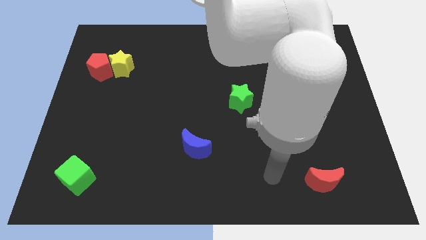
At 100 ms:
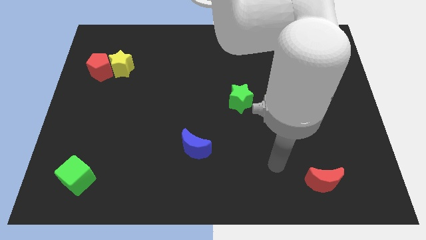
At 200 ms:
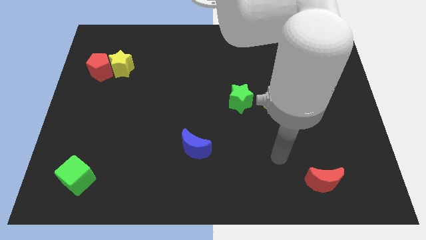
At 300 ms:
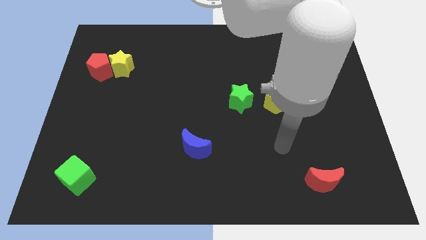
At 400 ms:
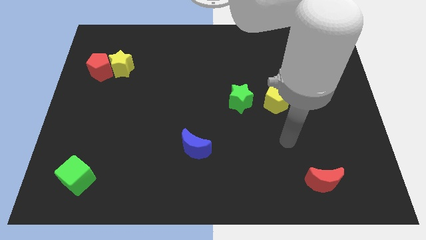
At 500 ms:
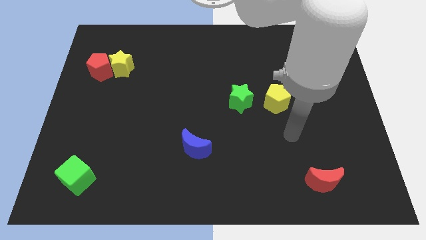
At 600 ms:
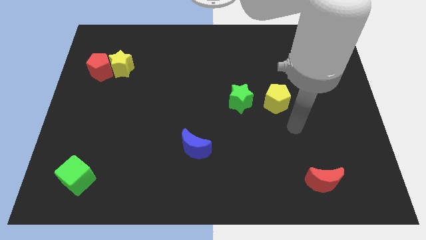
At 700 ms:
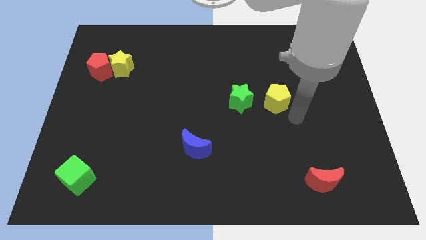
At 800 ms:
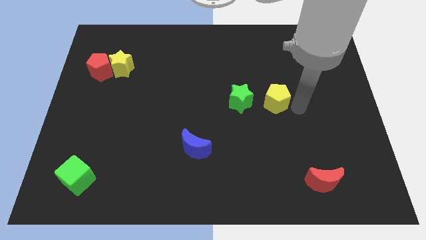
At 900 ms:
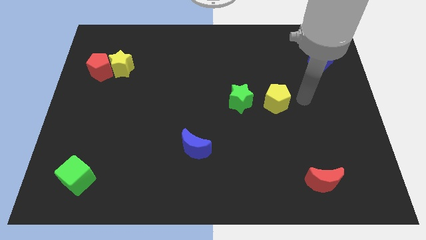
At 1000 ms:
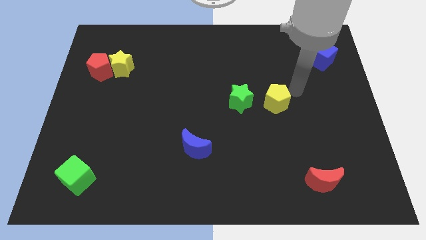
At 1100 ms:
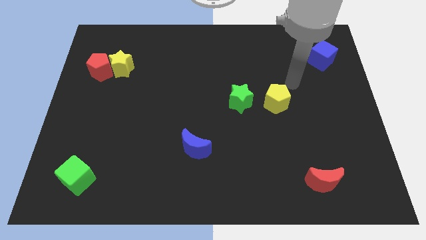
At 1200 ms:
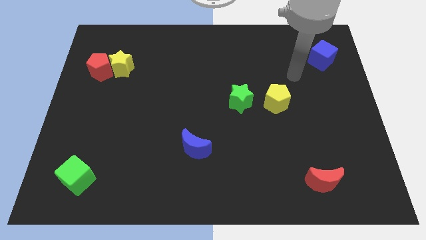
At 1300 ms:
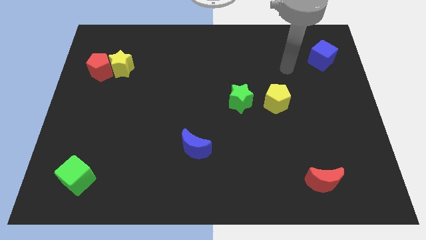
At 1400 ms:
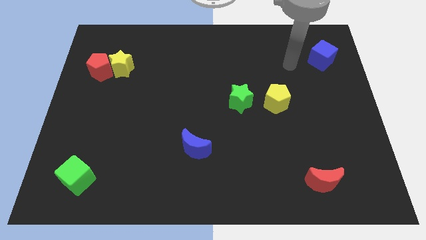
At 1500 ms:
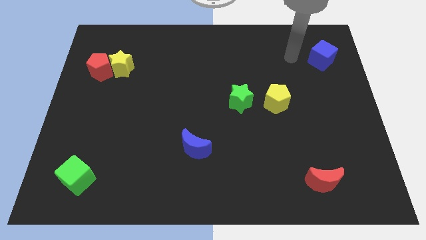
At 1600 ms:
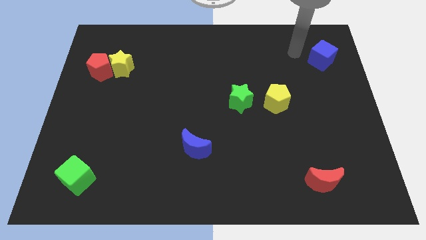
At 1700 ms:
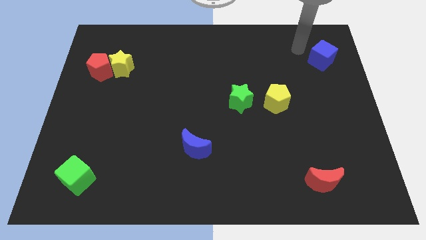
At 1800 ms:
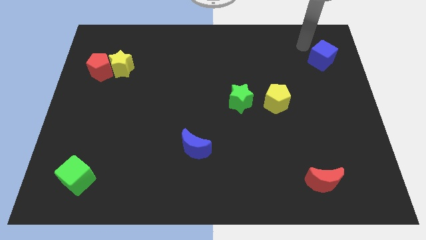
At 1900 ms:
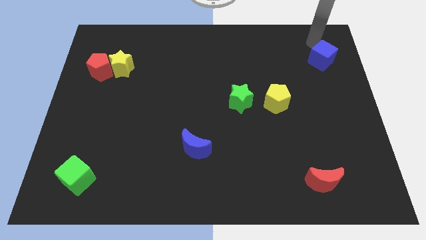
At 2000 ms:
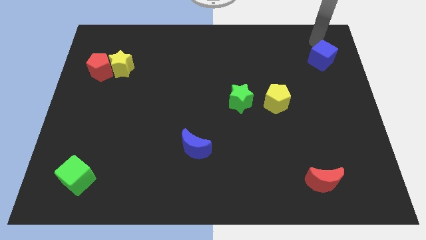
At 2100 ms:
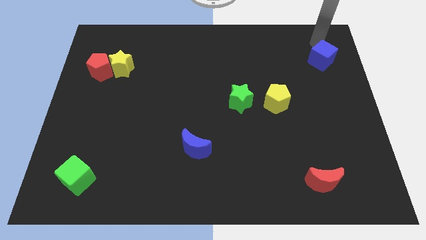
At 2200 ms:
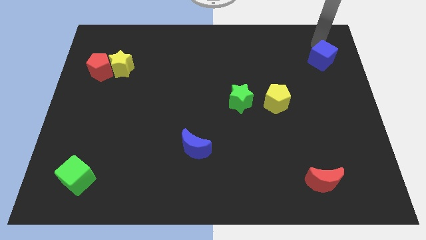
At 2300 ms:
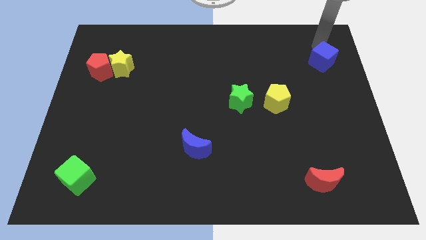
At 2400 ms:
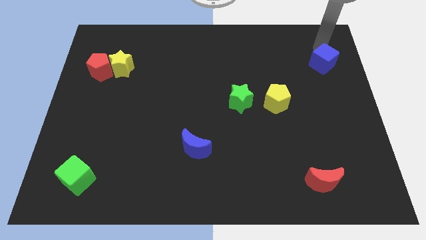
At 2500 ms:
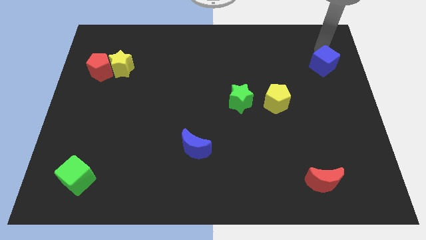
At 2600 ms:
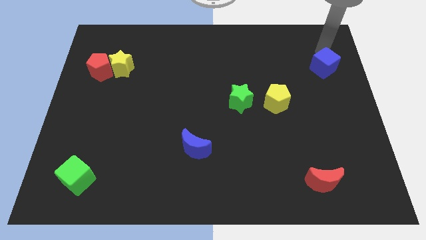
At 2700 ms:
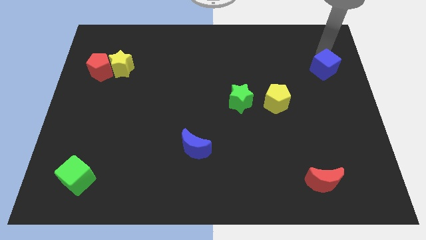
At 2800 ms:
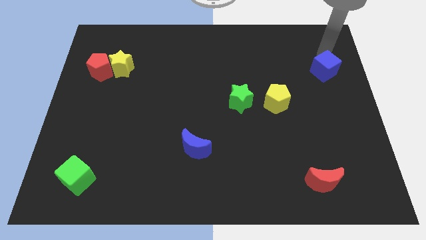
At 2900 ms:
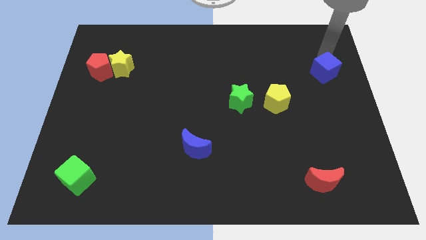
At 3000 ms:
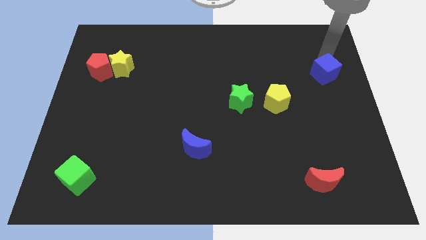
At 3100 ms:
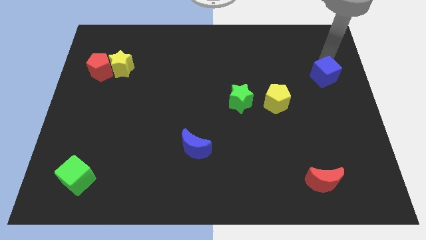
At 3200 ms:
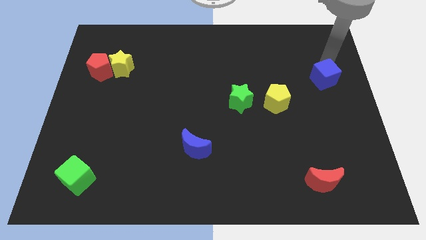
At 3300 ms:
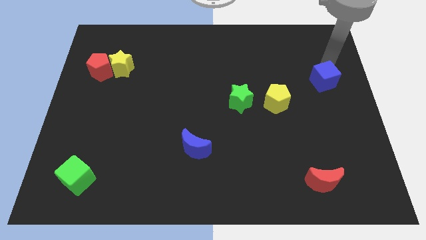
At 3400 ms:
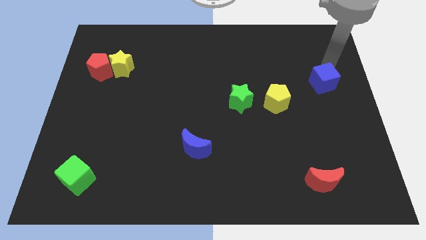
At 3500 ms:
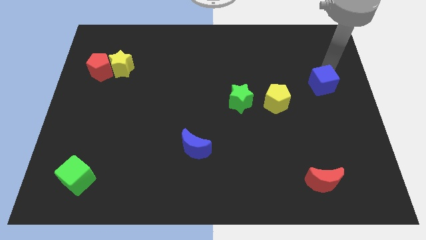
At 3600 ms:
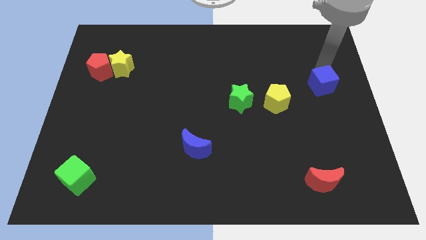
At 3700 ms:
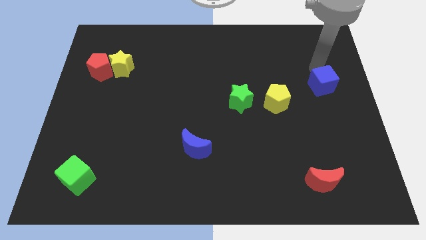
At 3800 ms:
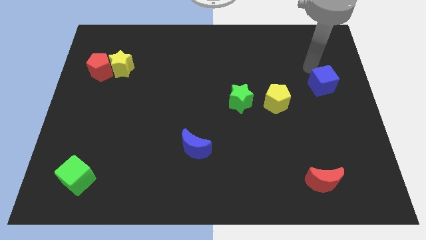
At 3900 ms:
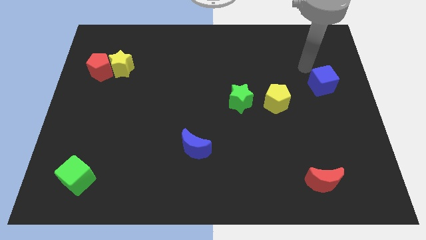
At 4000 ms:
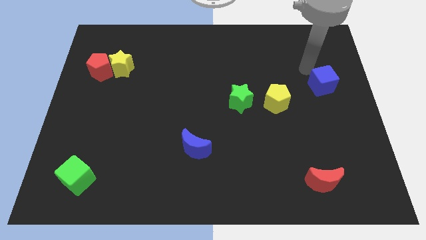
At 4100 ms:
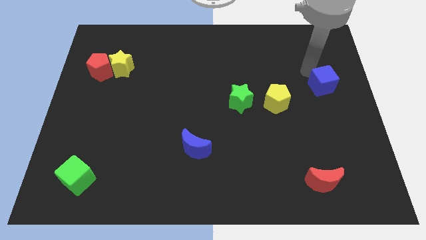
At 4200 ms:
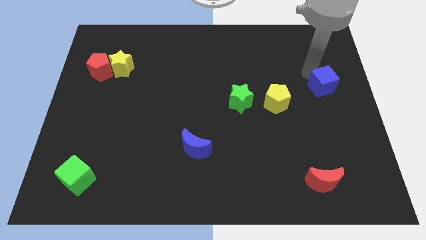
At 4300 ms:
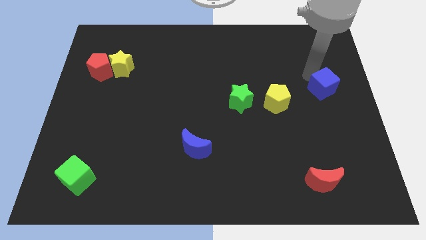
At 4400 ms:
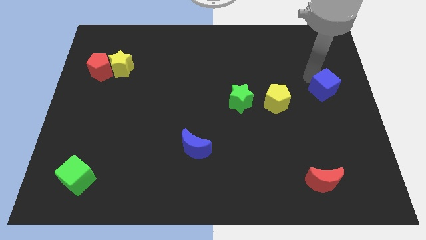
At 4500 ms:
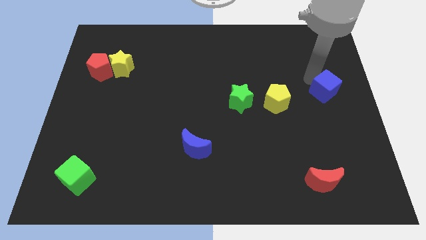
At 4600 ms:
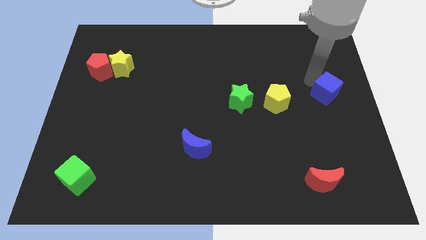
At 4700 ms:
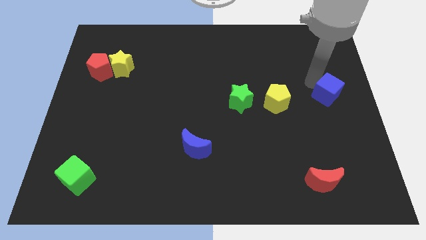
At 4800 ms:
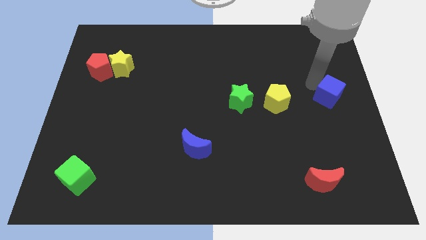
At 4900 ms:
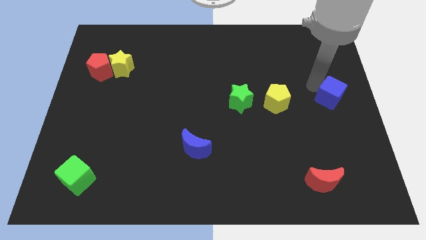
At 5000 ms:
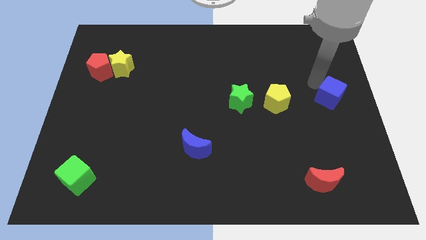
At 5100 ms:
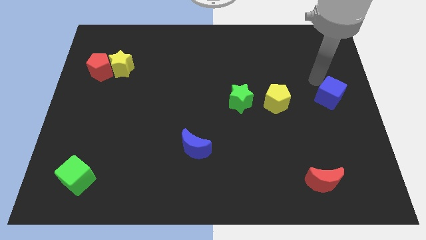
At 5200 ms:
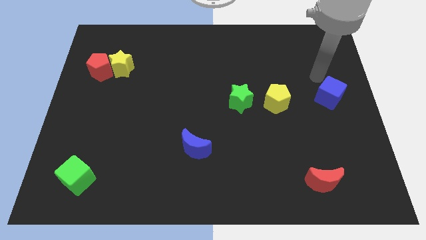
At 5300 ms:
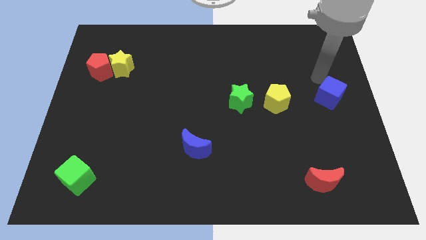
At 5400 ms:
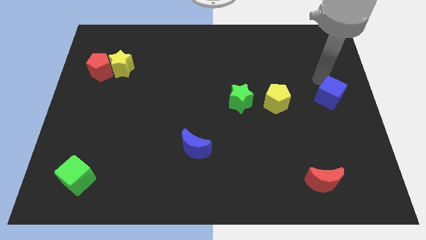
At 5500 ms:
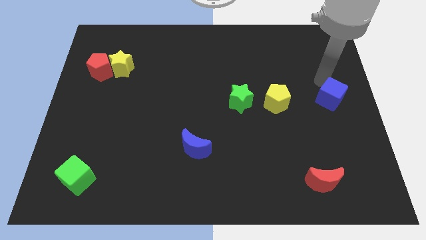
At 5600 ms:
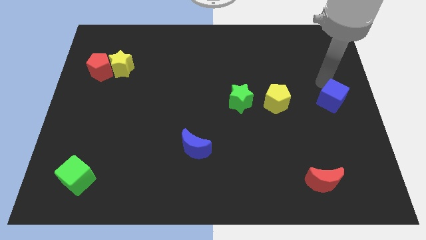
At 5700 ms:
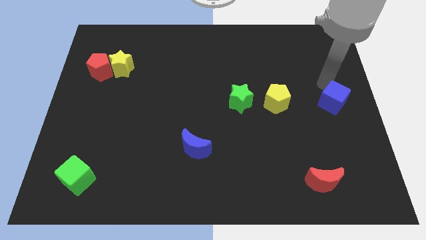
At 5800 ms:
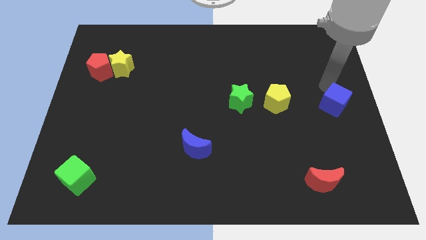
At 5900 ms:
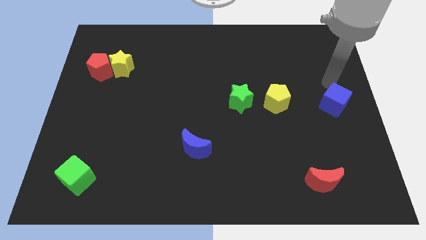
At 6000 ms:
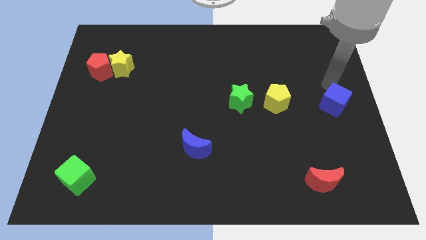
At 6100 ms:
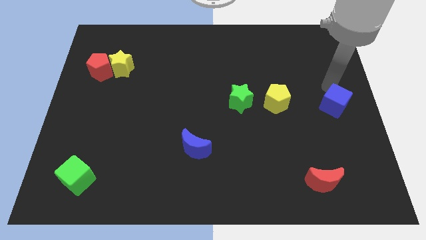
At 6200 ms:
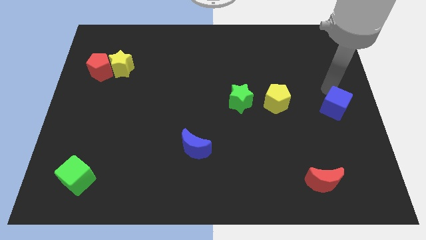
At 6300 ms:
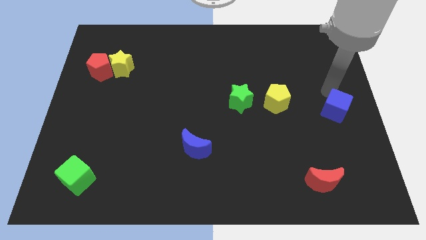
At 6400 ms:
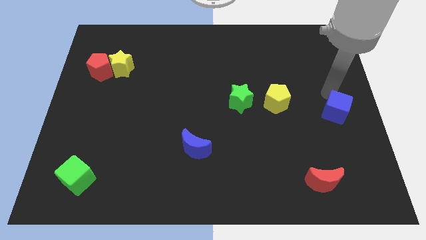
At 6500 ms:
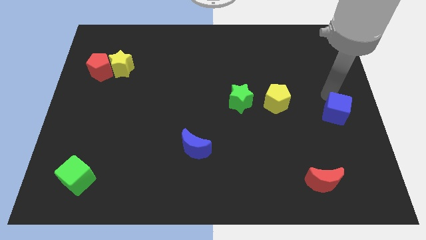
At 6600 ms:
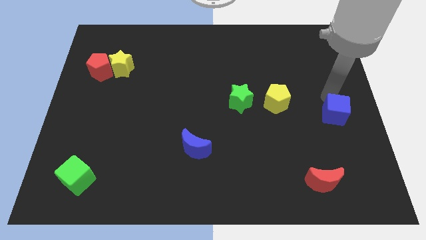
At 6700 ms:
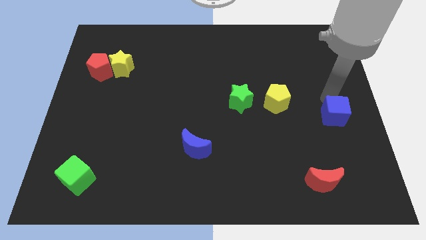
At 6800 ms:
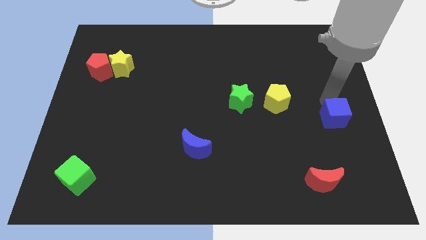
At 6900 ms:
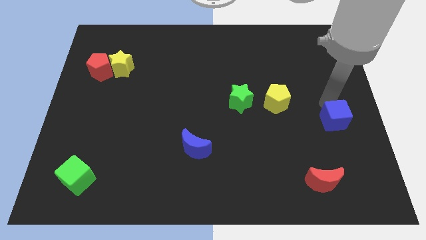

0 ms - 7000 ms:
move the blue cube downwards

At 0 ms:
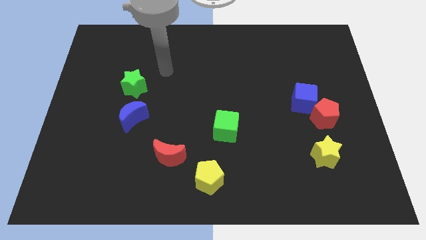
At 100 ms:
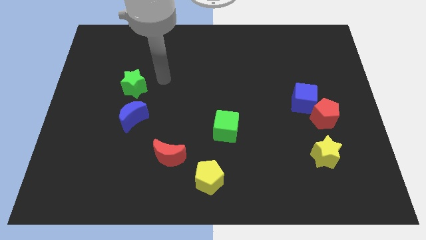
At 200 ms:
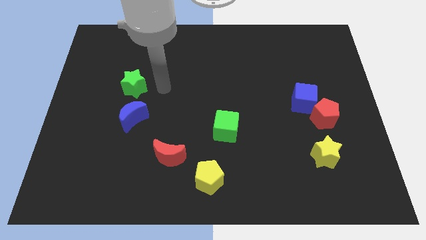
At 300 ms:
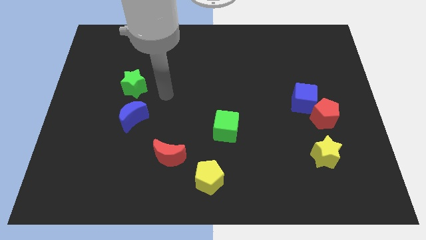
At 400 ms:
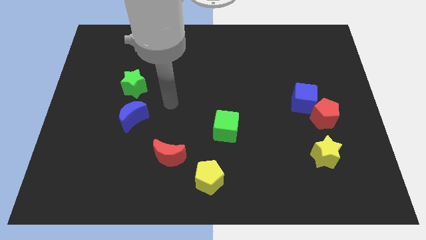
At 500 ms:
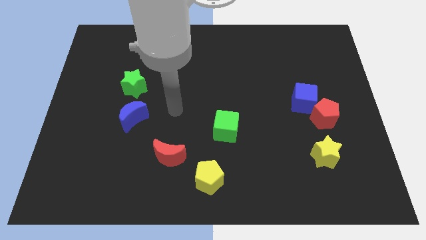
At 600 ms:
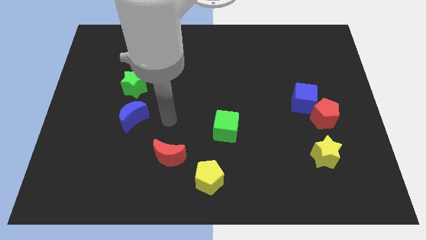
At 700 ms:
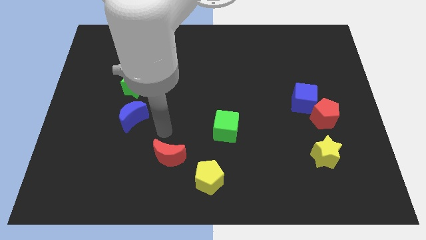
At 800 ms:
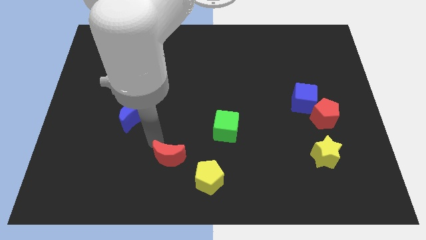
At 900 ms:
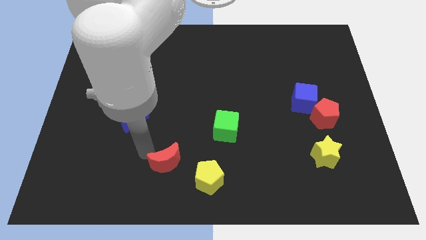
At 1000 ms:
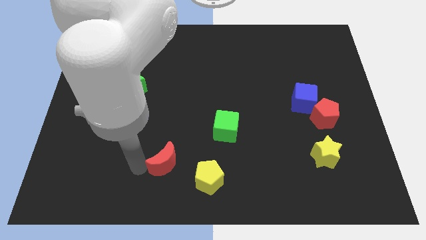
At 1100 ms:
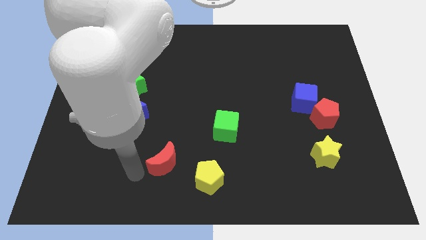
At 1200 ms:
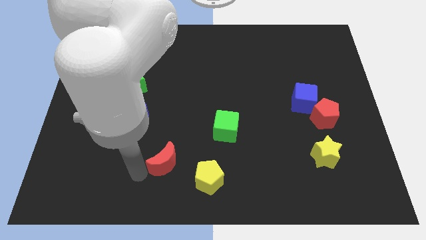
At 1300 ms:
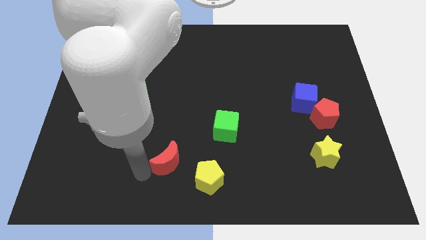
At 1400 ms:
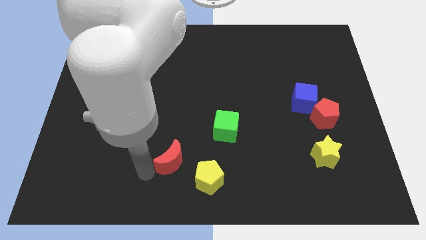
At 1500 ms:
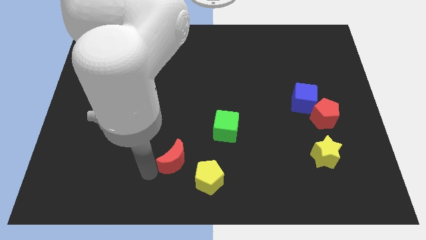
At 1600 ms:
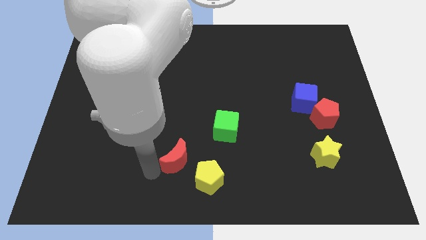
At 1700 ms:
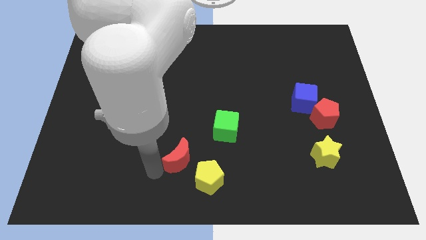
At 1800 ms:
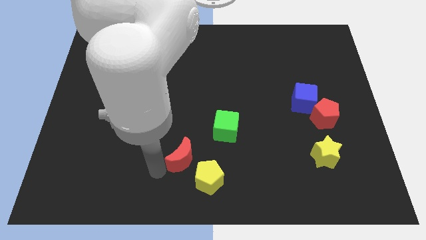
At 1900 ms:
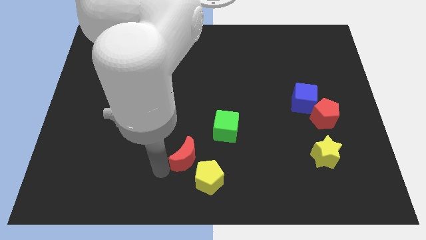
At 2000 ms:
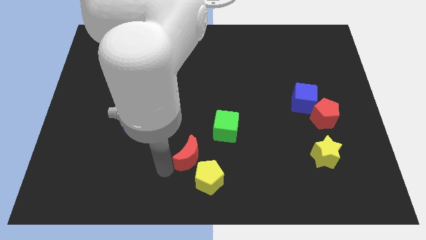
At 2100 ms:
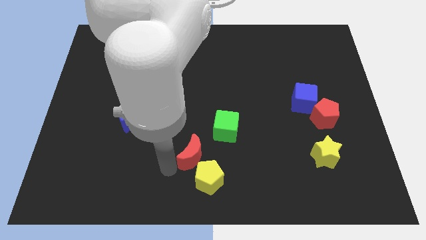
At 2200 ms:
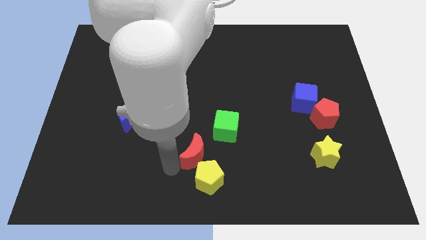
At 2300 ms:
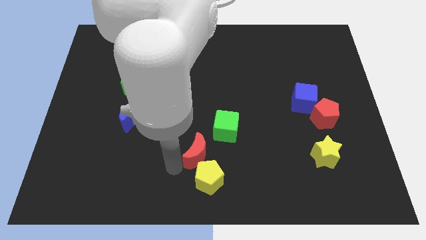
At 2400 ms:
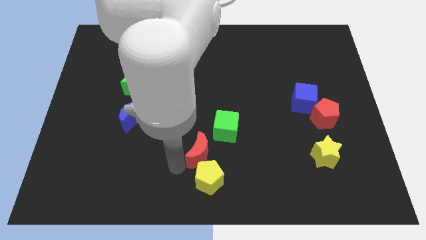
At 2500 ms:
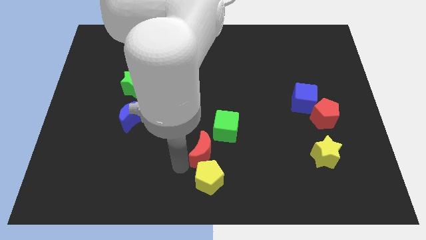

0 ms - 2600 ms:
slightly push the red moon right
